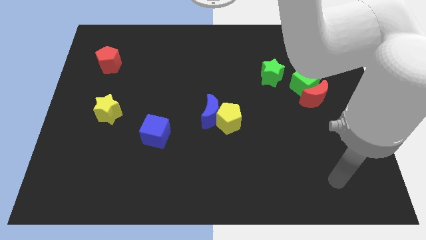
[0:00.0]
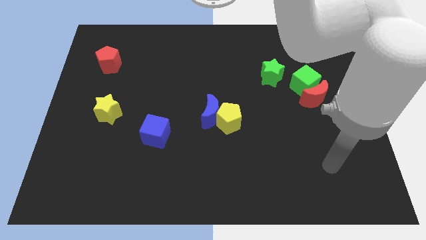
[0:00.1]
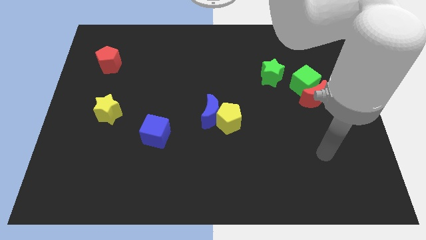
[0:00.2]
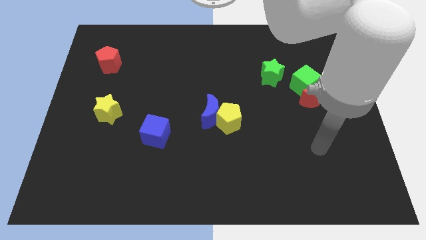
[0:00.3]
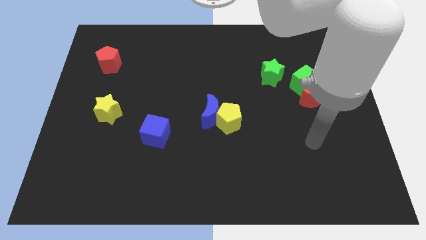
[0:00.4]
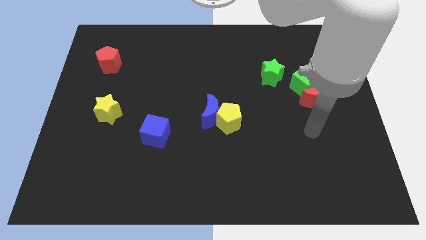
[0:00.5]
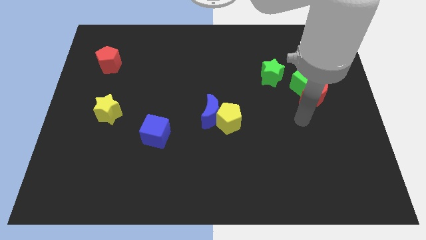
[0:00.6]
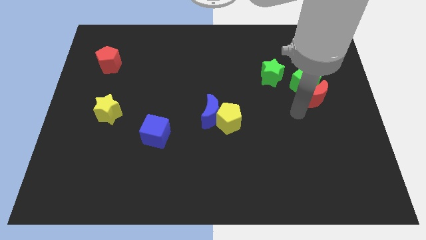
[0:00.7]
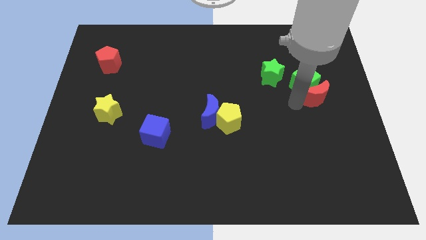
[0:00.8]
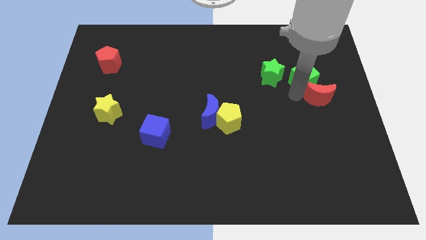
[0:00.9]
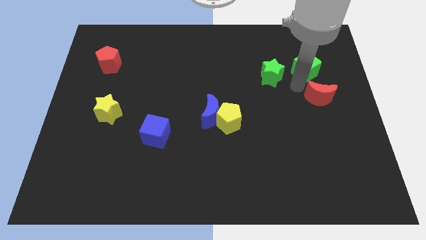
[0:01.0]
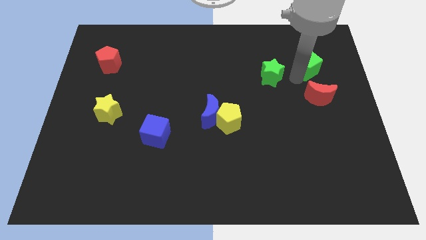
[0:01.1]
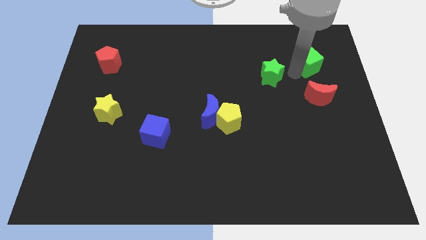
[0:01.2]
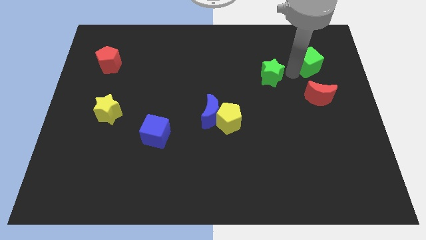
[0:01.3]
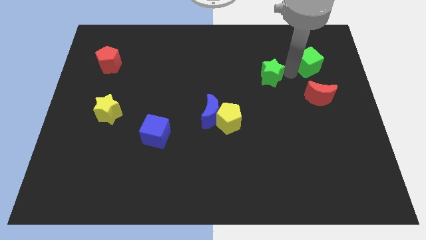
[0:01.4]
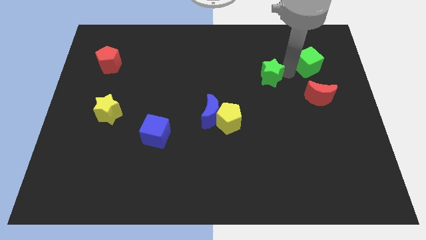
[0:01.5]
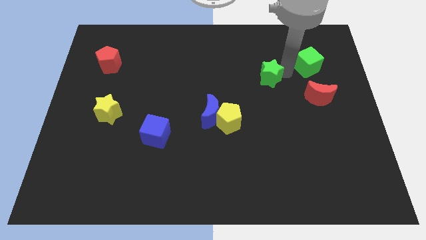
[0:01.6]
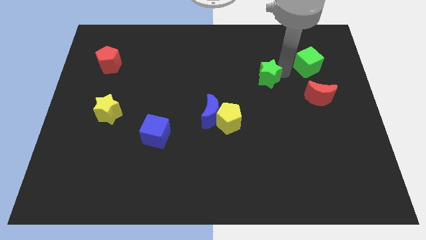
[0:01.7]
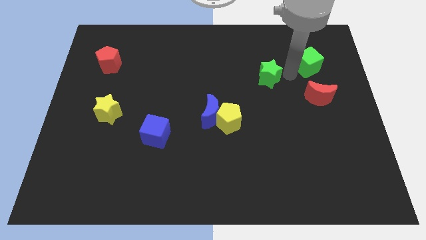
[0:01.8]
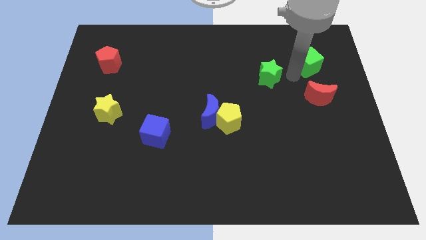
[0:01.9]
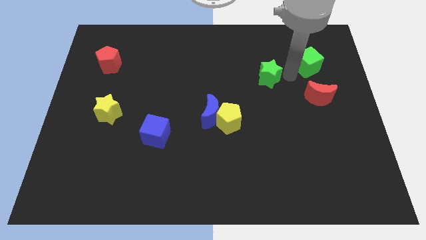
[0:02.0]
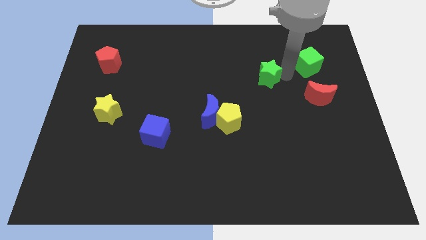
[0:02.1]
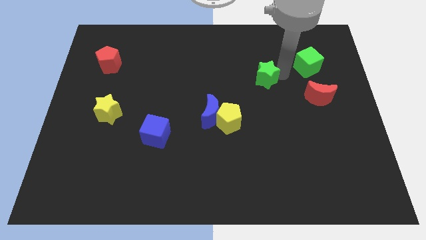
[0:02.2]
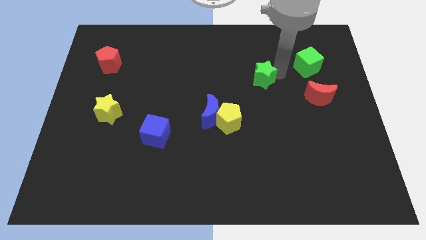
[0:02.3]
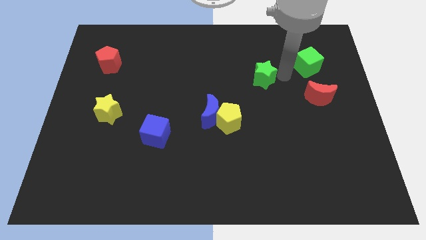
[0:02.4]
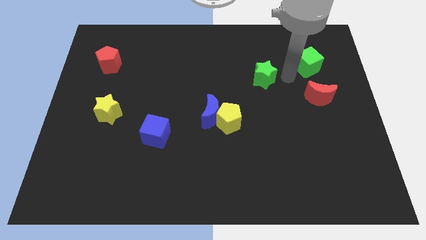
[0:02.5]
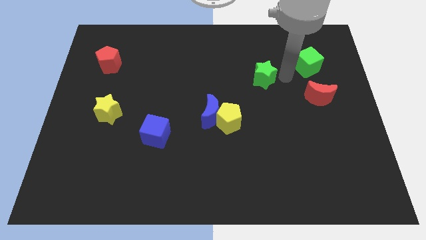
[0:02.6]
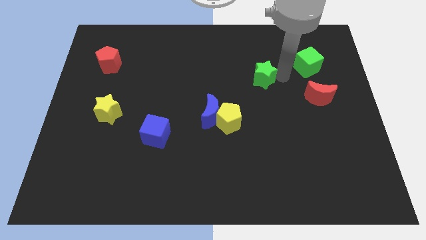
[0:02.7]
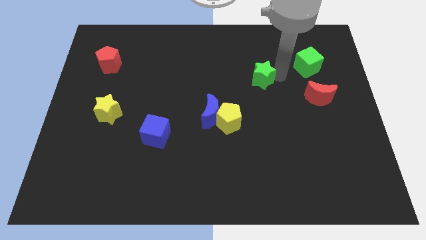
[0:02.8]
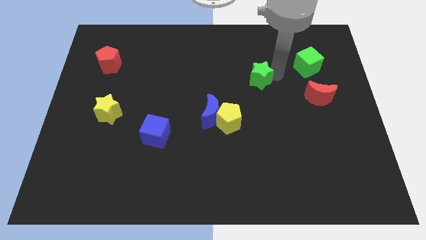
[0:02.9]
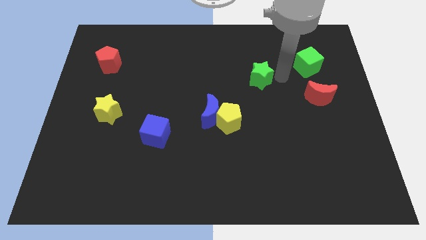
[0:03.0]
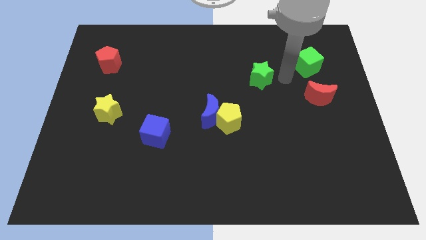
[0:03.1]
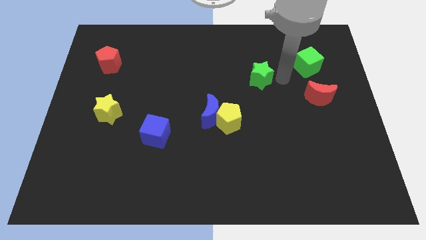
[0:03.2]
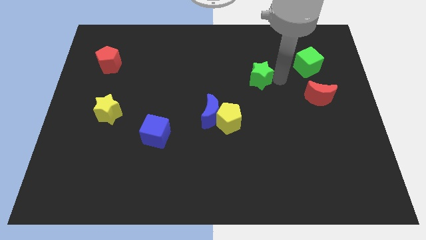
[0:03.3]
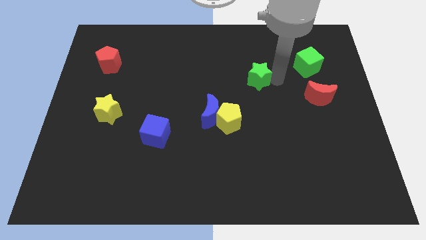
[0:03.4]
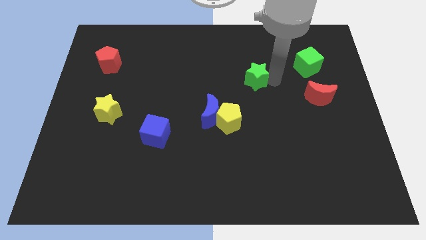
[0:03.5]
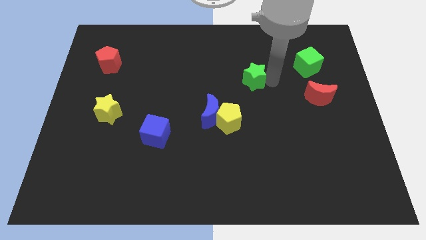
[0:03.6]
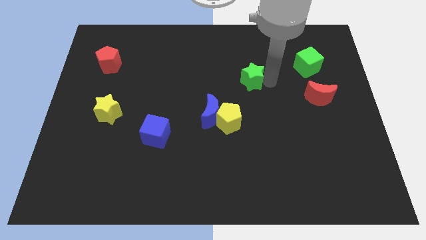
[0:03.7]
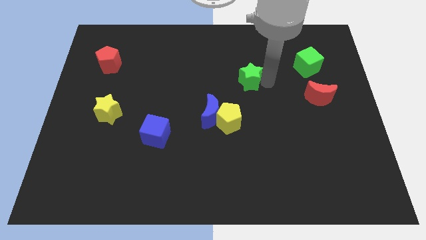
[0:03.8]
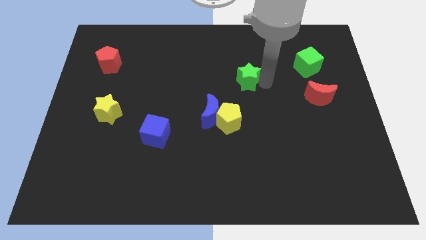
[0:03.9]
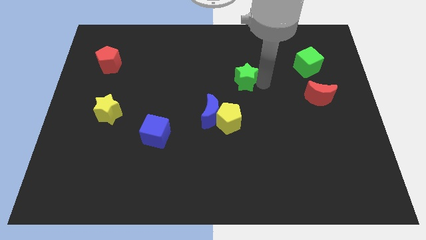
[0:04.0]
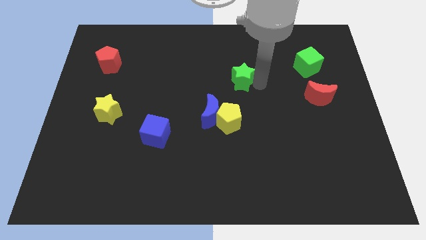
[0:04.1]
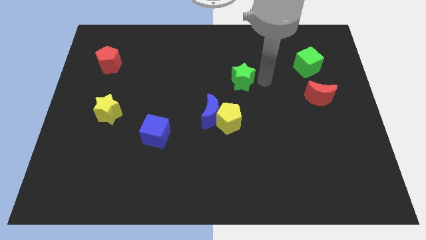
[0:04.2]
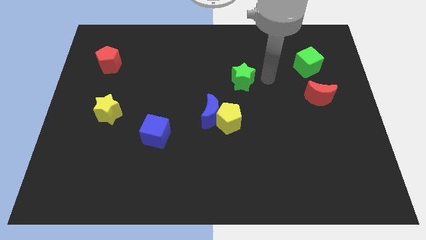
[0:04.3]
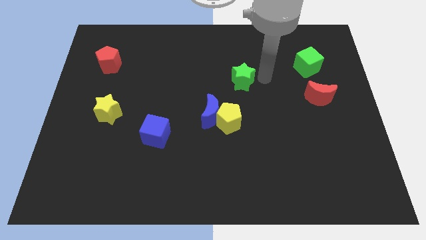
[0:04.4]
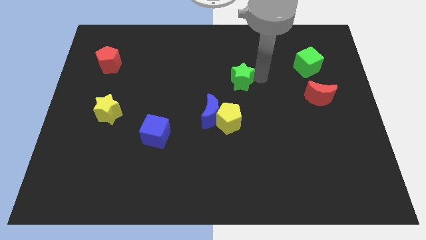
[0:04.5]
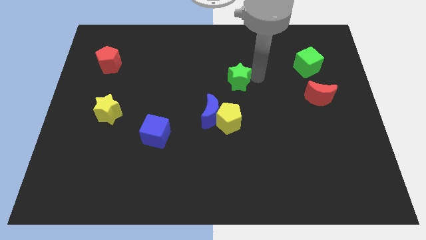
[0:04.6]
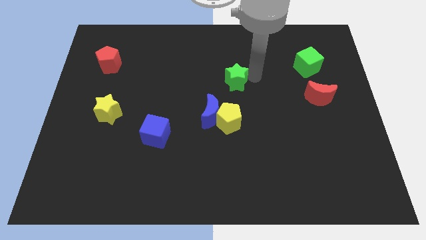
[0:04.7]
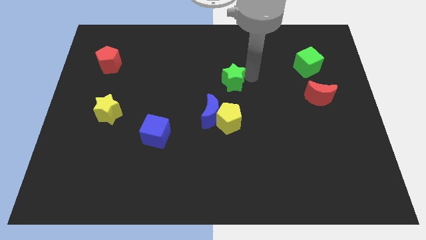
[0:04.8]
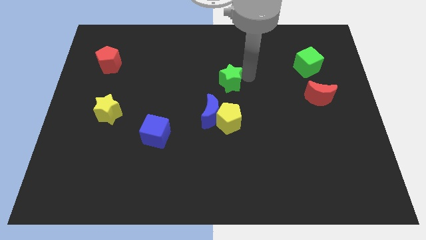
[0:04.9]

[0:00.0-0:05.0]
push the green star to the top of the blue moon

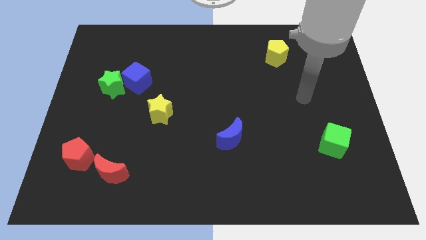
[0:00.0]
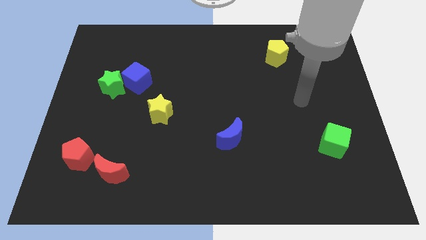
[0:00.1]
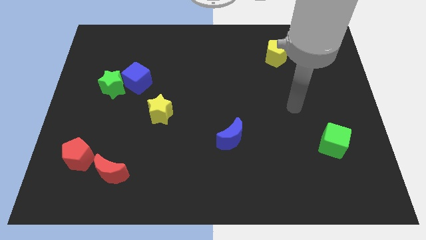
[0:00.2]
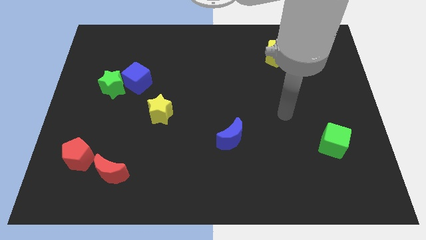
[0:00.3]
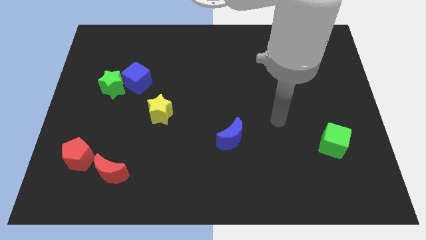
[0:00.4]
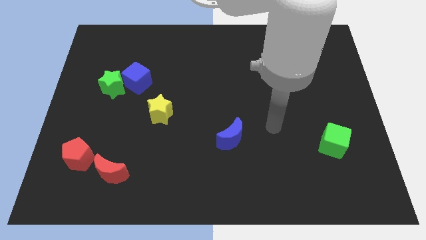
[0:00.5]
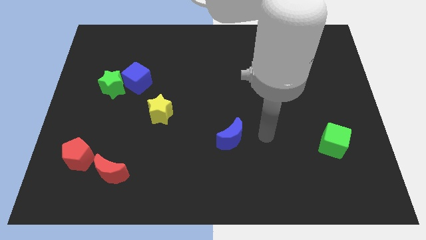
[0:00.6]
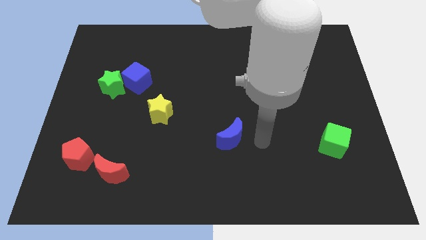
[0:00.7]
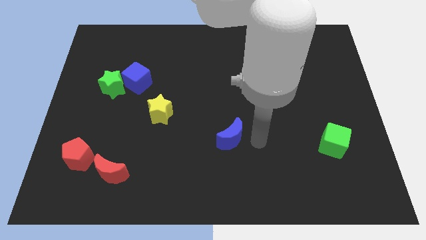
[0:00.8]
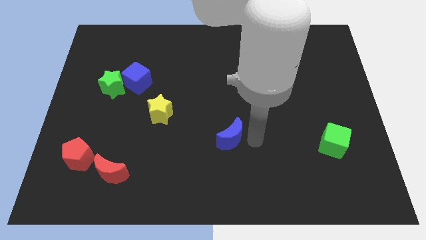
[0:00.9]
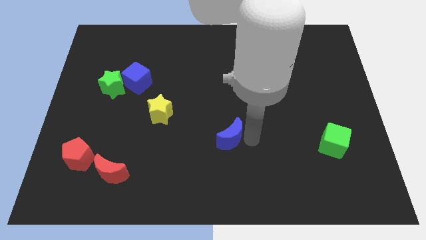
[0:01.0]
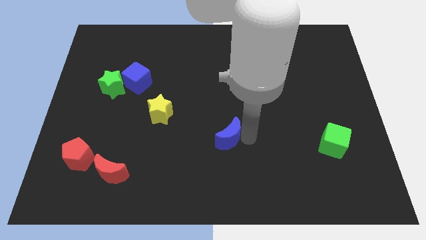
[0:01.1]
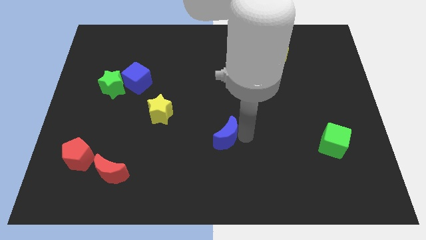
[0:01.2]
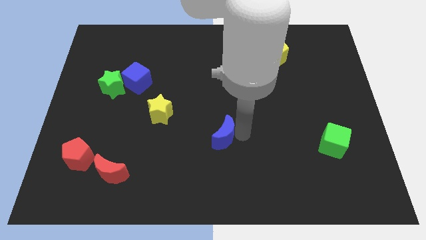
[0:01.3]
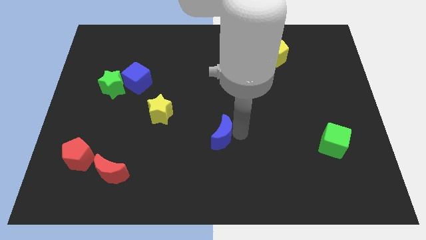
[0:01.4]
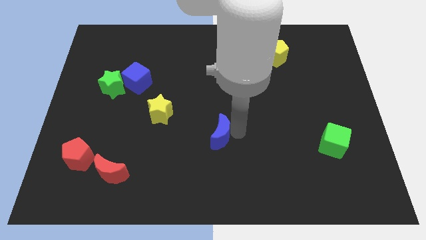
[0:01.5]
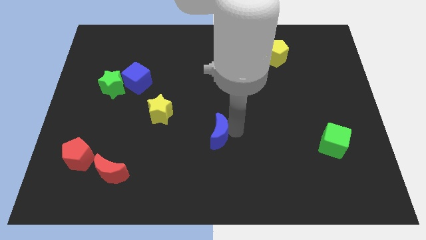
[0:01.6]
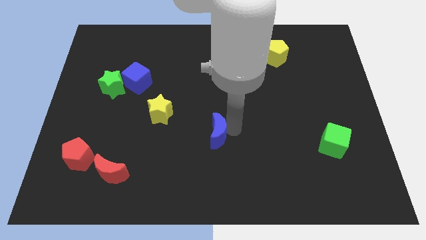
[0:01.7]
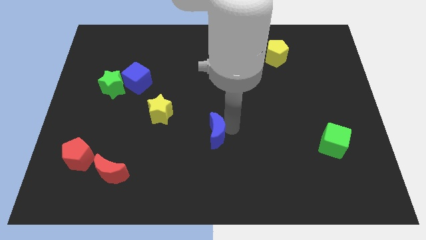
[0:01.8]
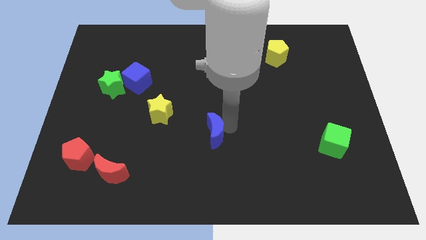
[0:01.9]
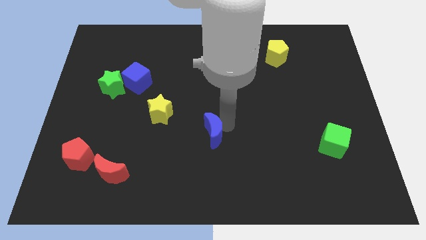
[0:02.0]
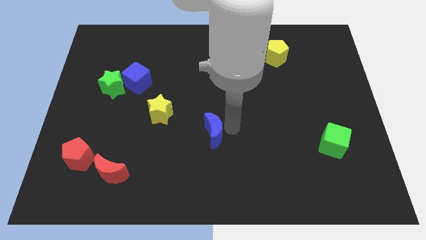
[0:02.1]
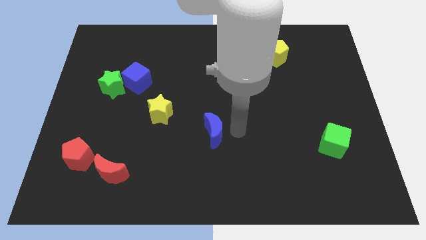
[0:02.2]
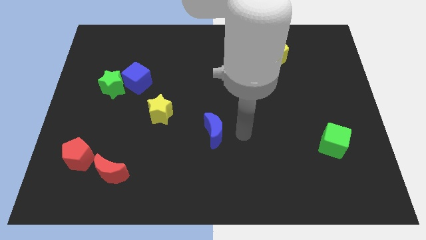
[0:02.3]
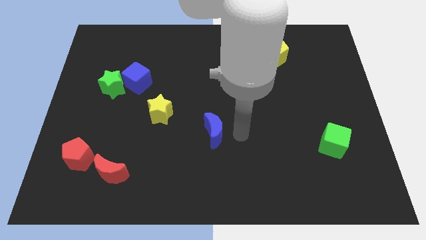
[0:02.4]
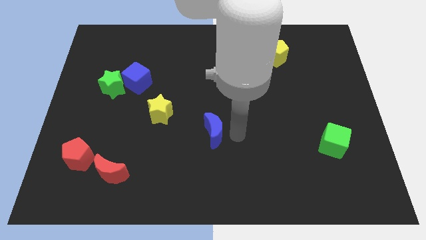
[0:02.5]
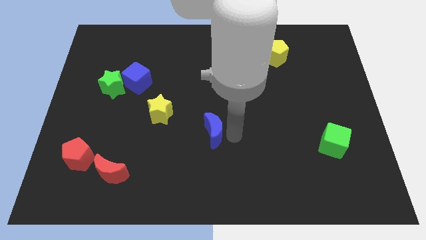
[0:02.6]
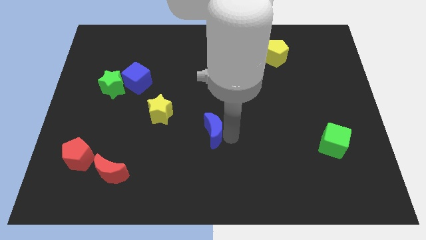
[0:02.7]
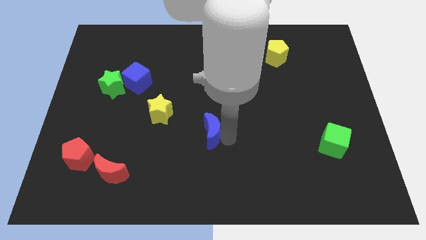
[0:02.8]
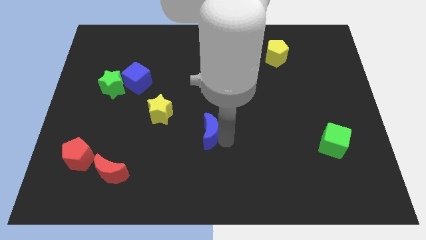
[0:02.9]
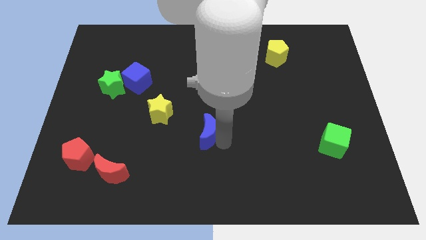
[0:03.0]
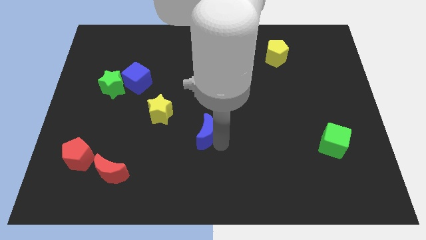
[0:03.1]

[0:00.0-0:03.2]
slide the blue moon diagonally down and to the right of the yellow star

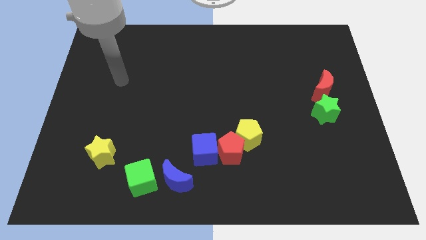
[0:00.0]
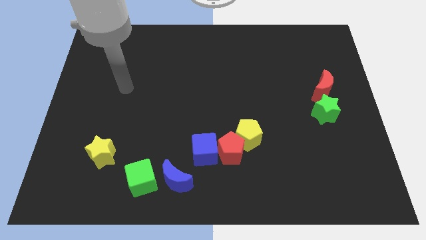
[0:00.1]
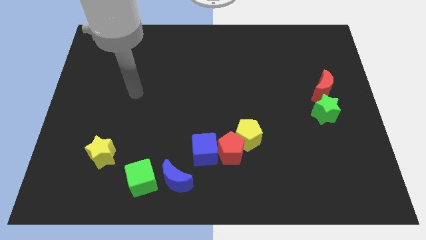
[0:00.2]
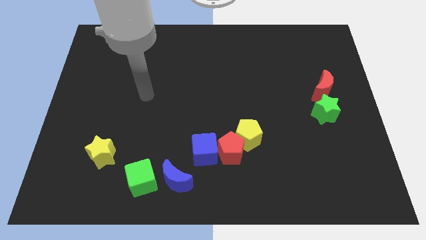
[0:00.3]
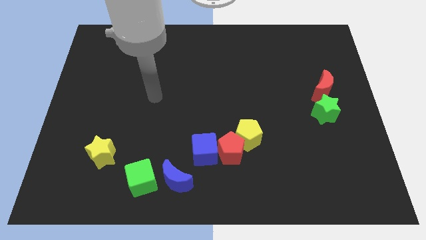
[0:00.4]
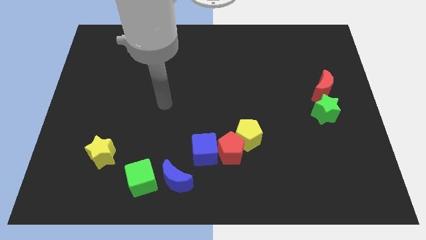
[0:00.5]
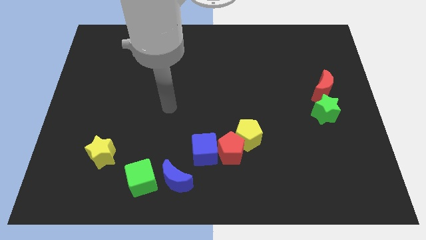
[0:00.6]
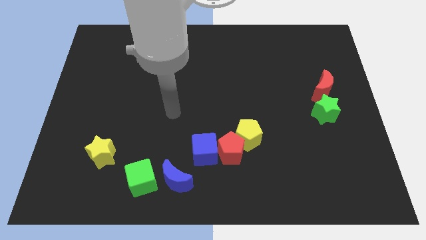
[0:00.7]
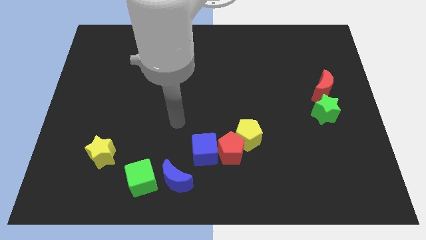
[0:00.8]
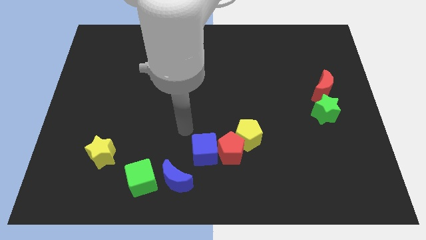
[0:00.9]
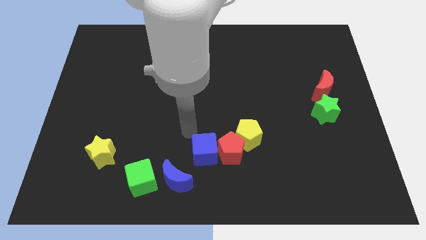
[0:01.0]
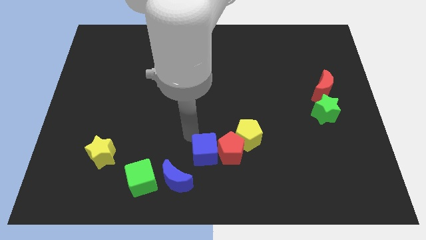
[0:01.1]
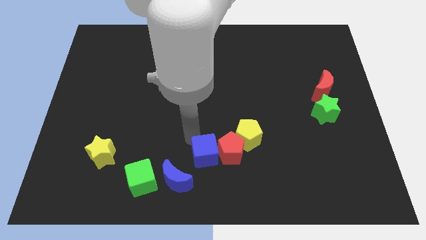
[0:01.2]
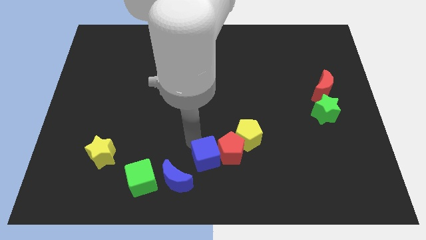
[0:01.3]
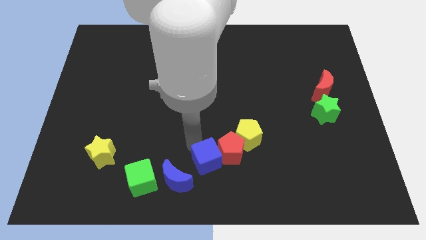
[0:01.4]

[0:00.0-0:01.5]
slide the blue cube just right of the blue moon
